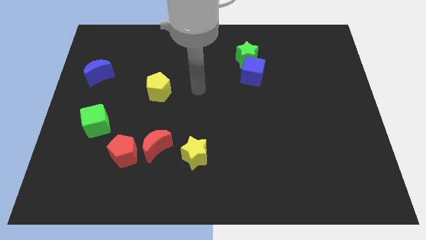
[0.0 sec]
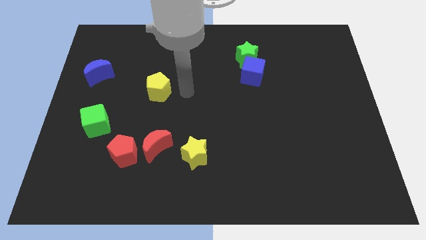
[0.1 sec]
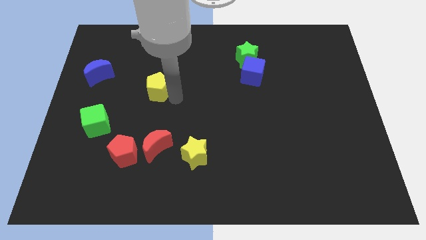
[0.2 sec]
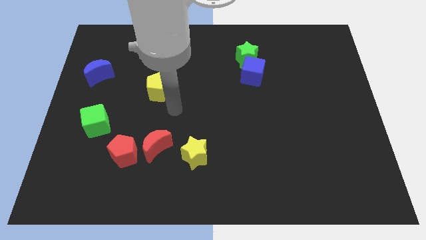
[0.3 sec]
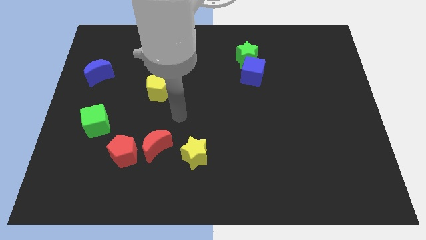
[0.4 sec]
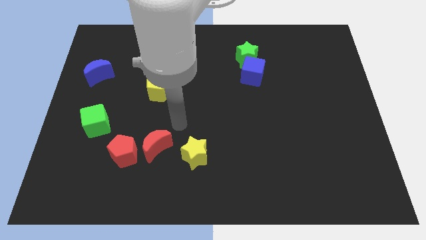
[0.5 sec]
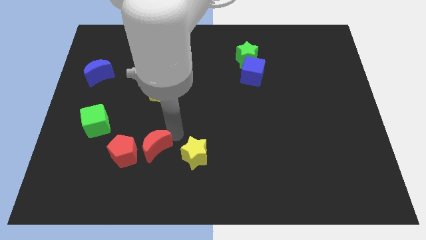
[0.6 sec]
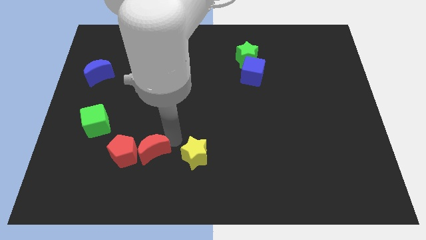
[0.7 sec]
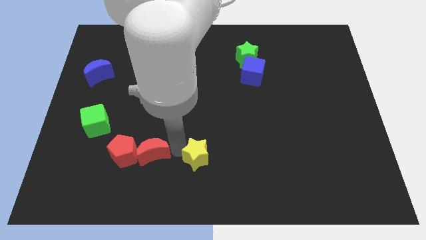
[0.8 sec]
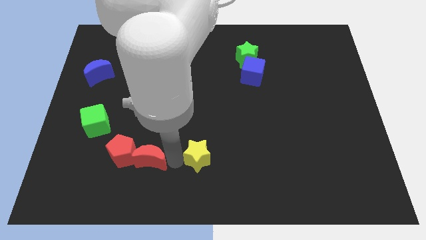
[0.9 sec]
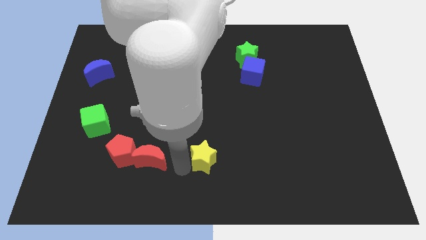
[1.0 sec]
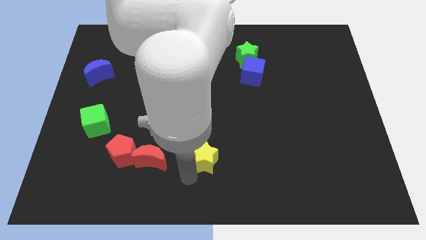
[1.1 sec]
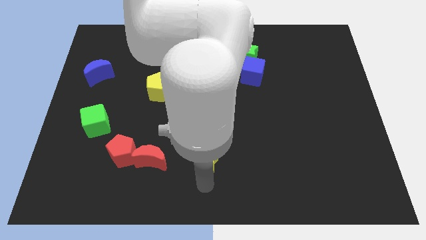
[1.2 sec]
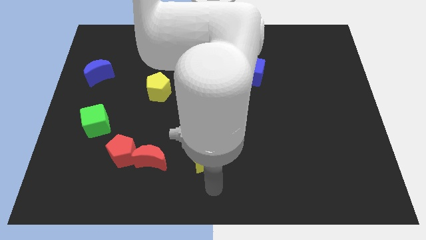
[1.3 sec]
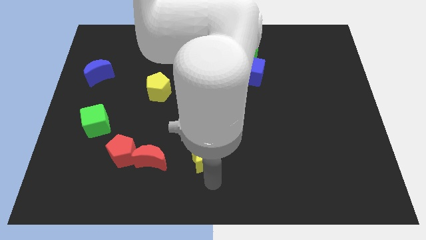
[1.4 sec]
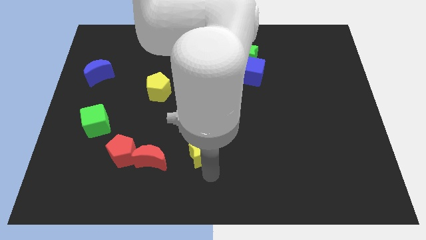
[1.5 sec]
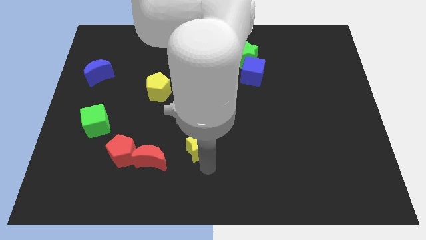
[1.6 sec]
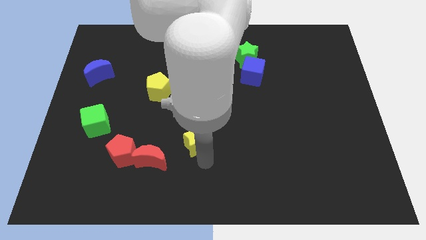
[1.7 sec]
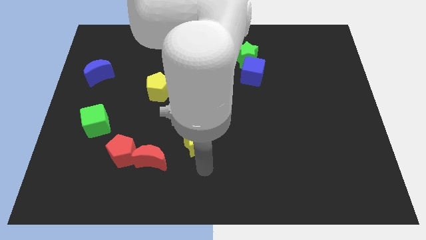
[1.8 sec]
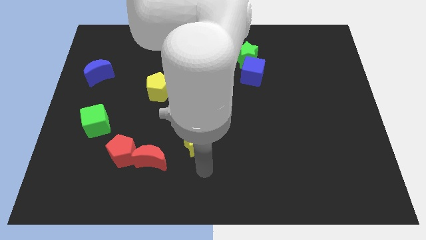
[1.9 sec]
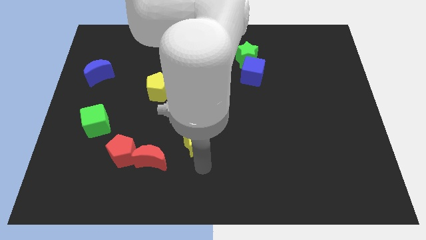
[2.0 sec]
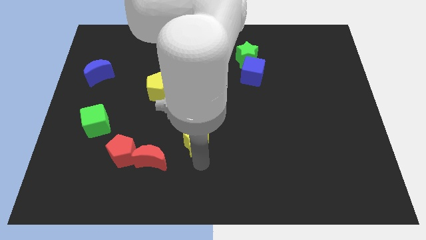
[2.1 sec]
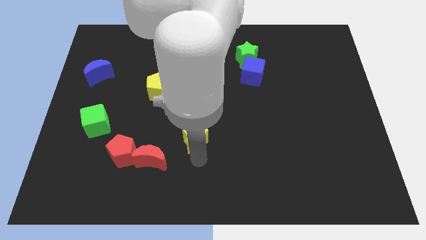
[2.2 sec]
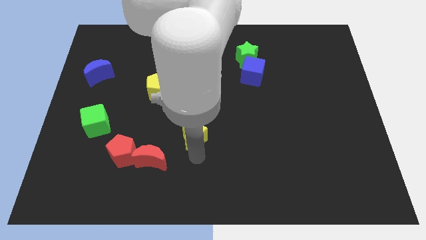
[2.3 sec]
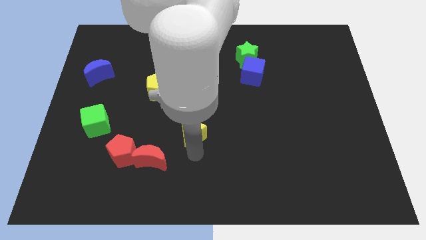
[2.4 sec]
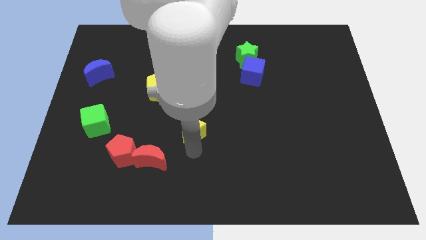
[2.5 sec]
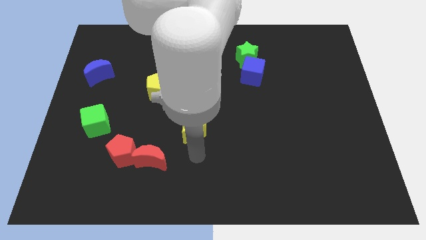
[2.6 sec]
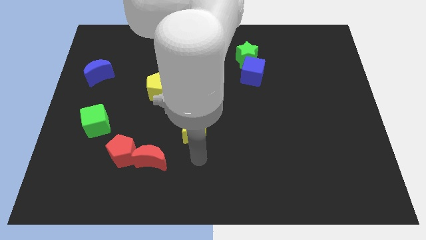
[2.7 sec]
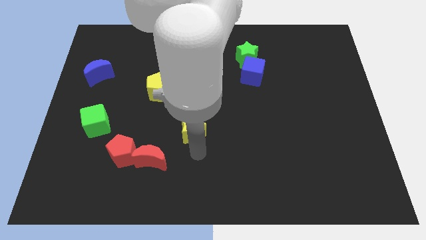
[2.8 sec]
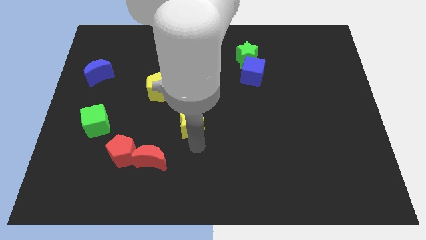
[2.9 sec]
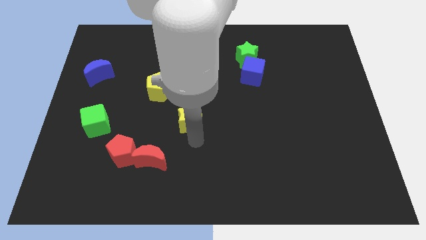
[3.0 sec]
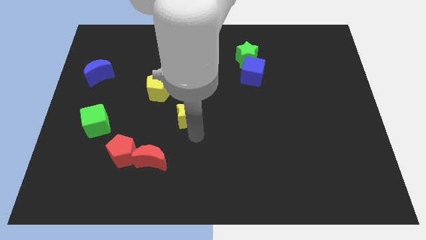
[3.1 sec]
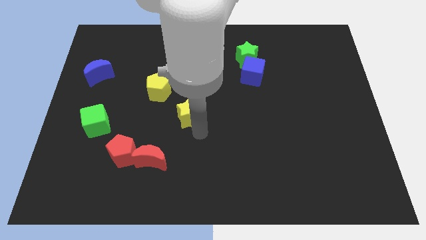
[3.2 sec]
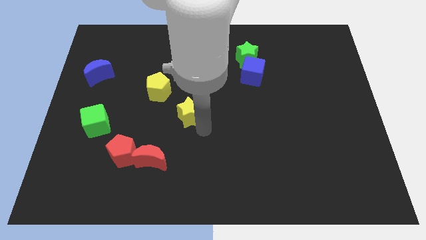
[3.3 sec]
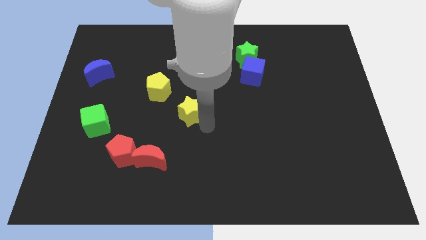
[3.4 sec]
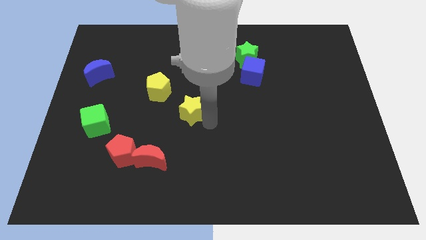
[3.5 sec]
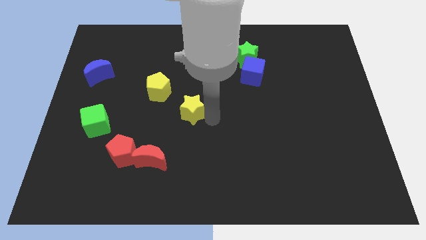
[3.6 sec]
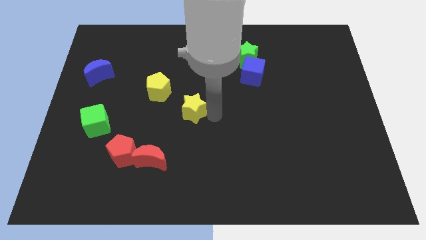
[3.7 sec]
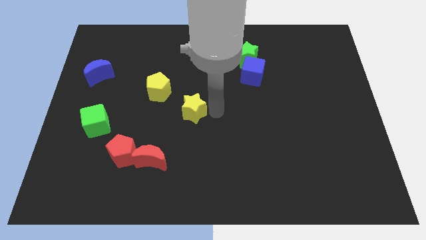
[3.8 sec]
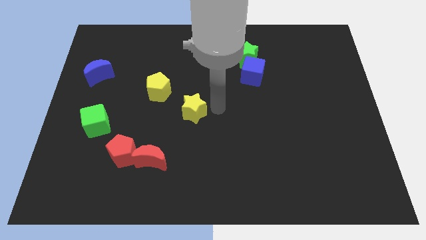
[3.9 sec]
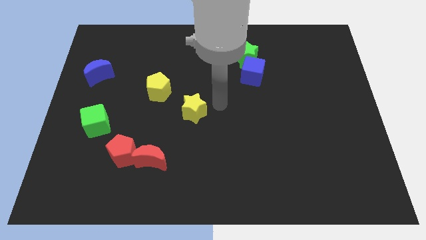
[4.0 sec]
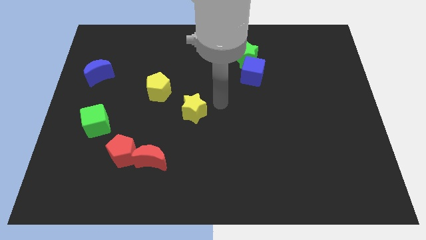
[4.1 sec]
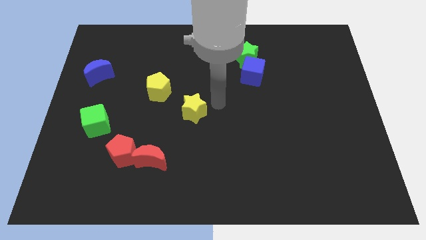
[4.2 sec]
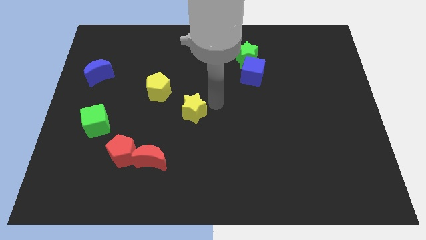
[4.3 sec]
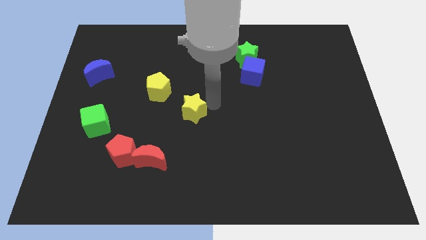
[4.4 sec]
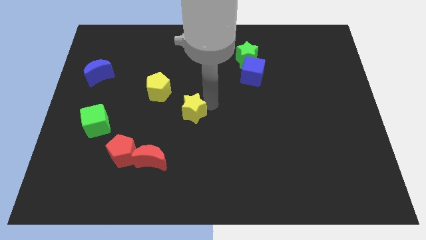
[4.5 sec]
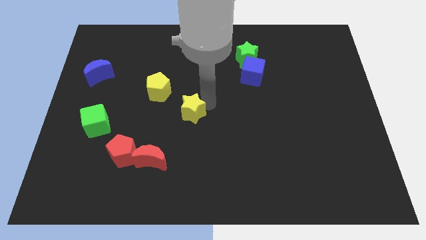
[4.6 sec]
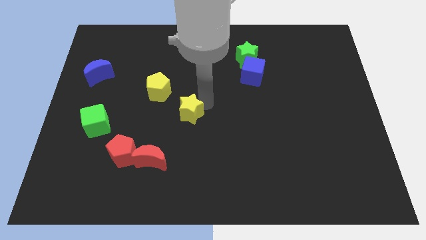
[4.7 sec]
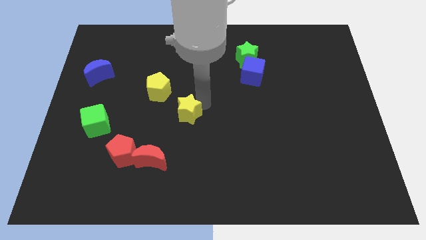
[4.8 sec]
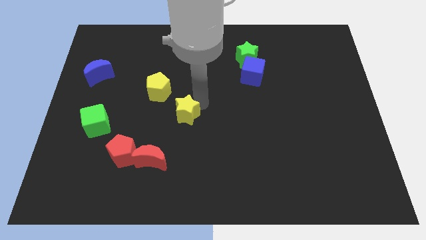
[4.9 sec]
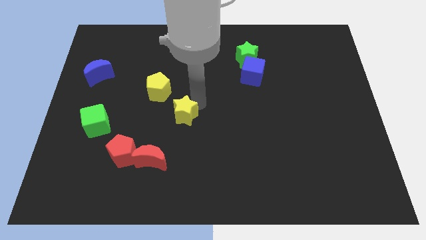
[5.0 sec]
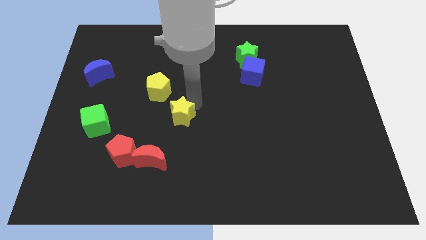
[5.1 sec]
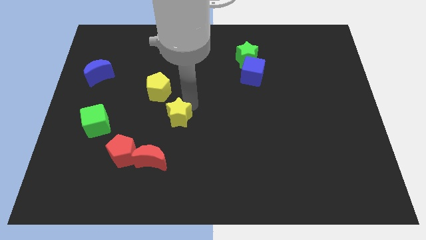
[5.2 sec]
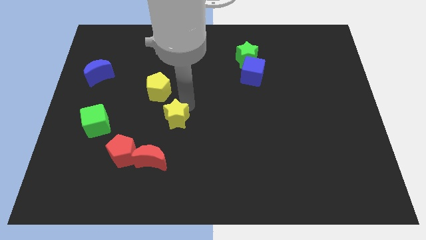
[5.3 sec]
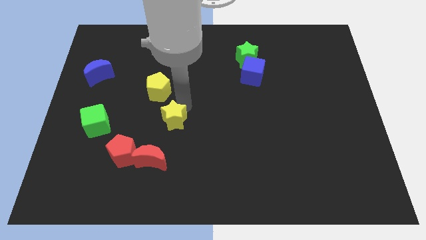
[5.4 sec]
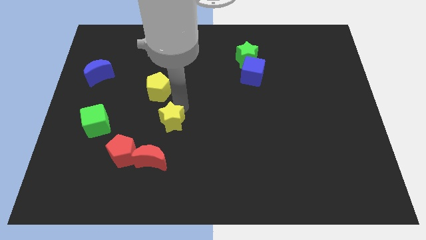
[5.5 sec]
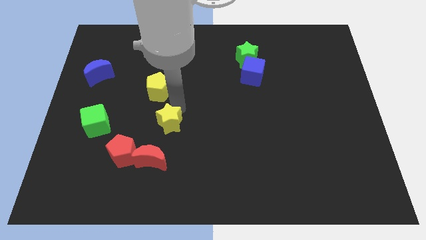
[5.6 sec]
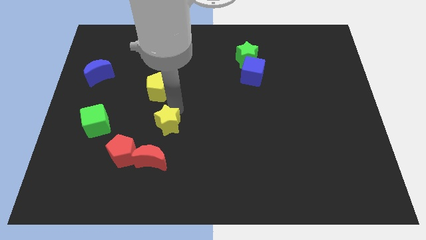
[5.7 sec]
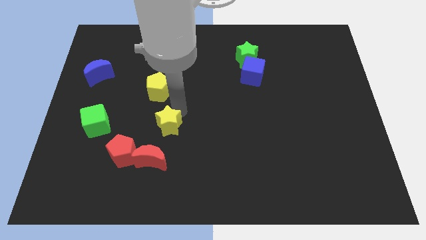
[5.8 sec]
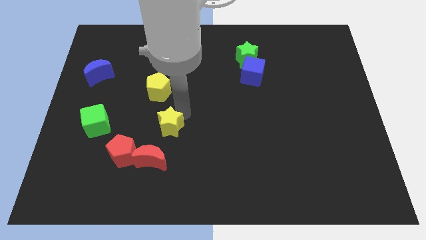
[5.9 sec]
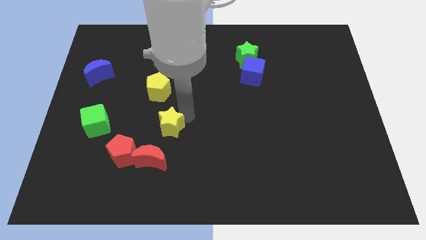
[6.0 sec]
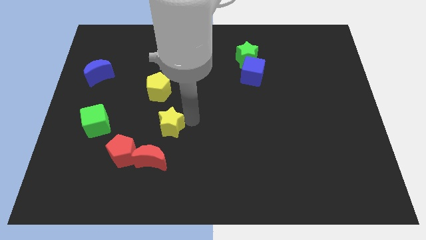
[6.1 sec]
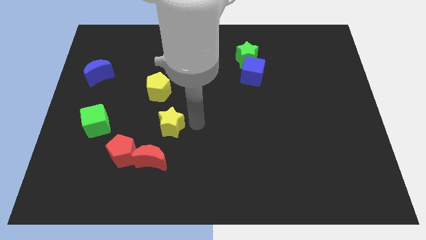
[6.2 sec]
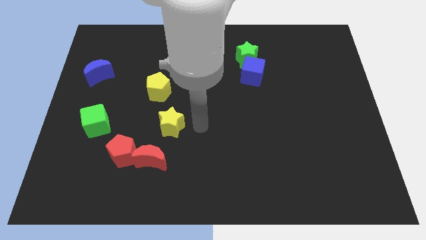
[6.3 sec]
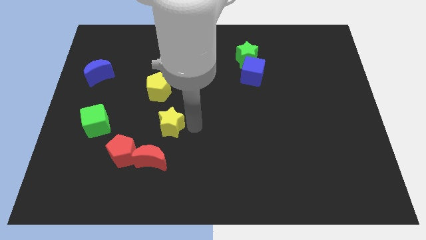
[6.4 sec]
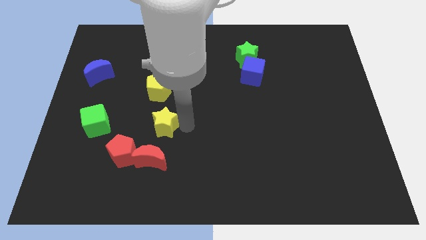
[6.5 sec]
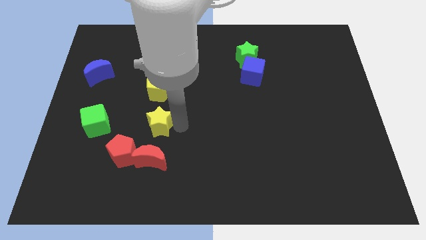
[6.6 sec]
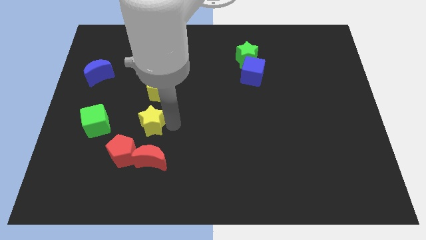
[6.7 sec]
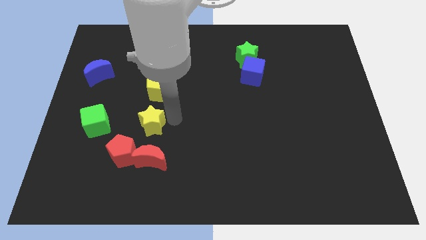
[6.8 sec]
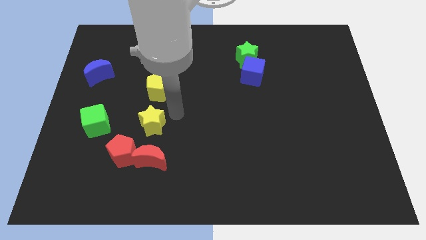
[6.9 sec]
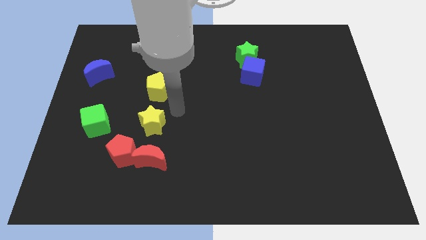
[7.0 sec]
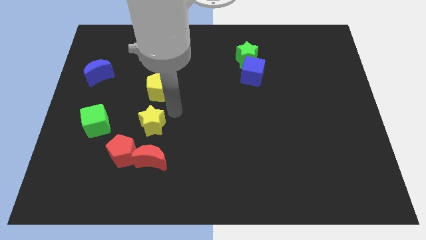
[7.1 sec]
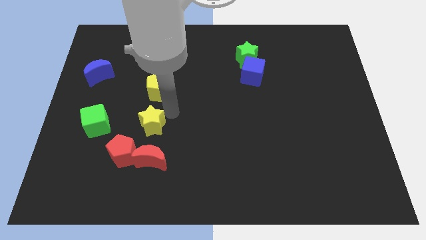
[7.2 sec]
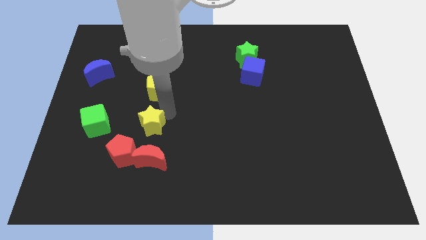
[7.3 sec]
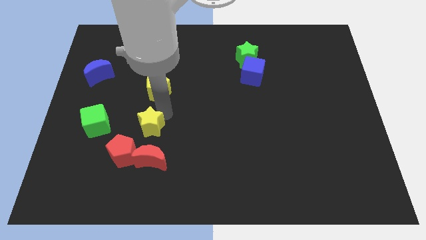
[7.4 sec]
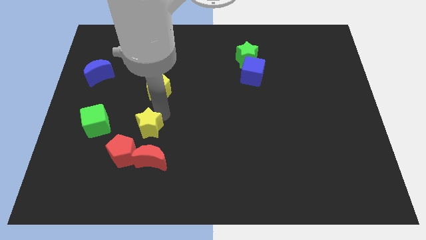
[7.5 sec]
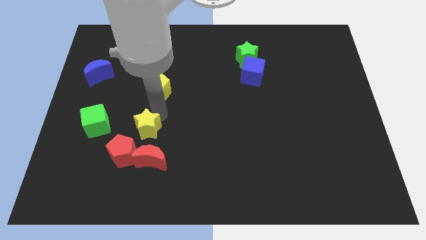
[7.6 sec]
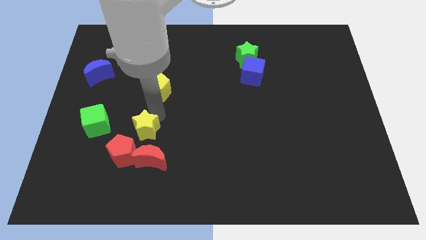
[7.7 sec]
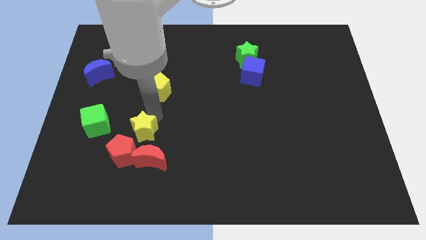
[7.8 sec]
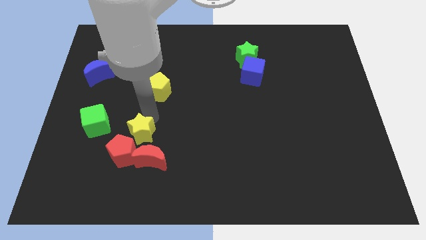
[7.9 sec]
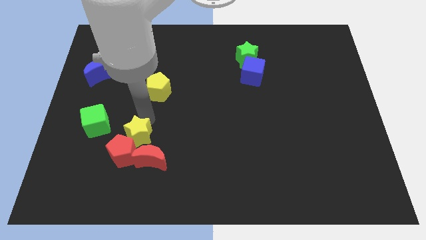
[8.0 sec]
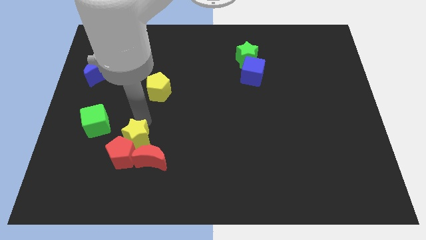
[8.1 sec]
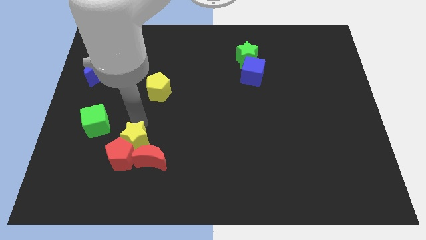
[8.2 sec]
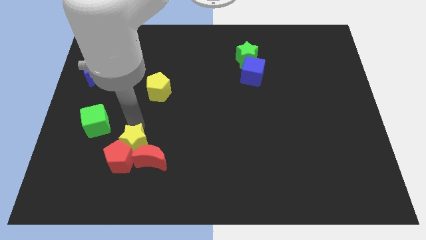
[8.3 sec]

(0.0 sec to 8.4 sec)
move the yellow star left of the red moon
